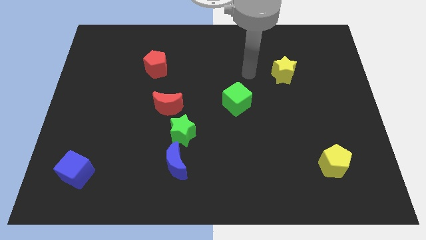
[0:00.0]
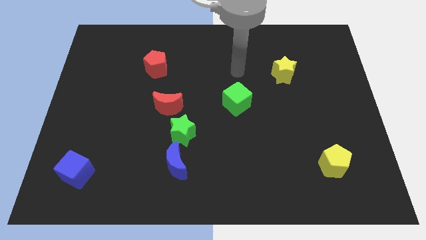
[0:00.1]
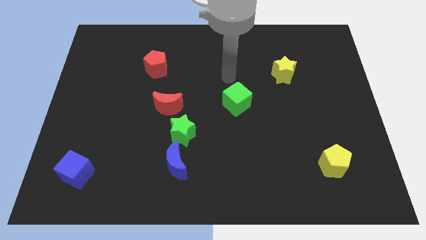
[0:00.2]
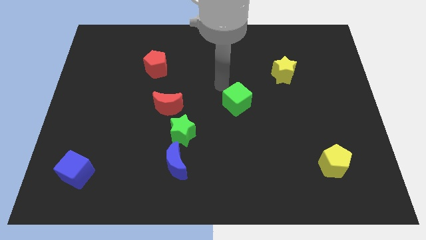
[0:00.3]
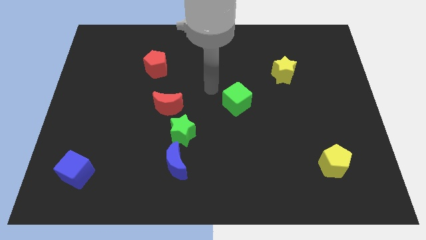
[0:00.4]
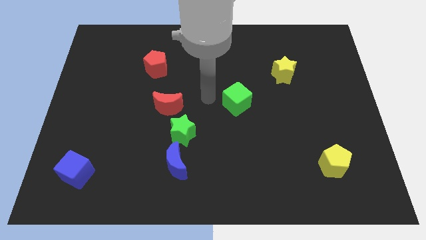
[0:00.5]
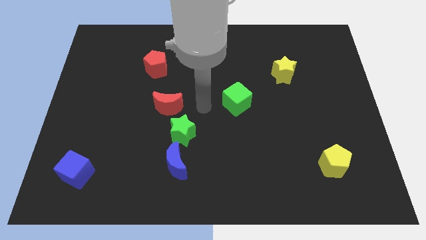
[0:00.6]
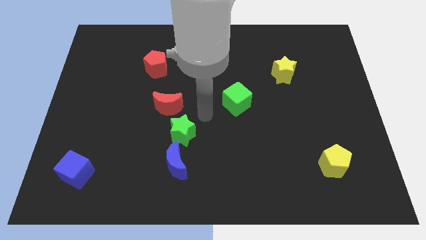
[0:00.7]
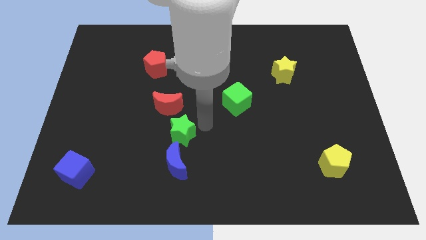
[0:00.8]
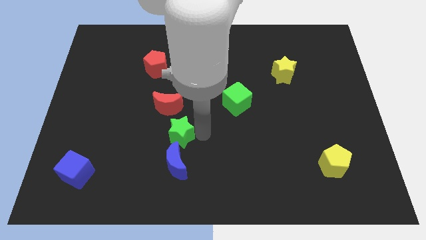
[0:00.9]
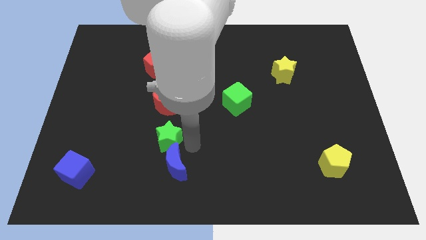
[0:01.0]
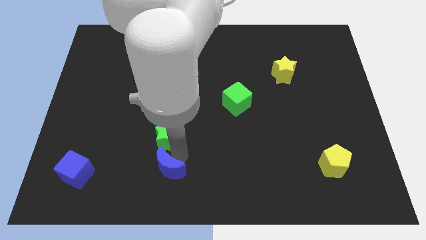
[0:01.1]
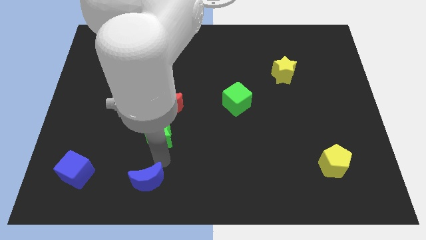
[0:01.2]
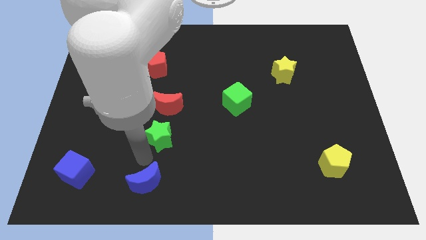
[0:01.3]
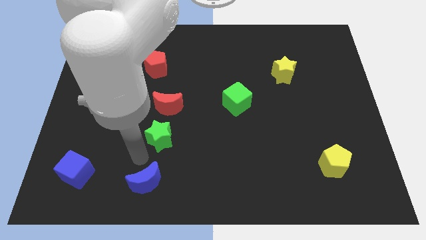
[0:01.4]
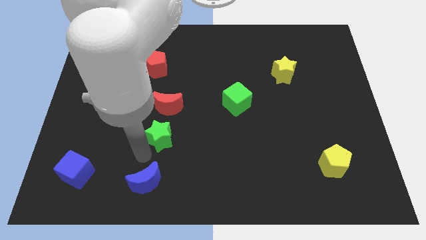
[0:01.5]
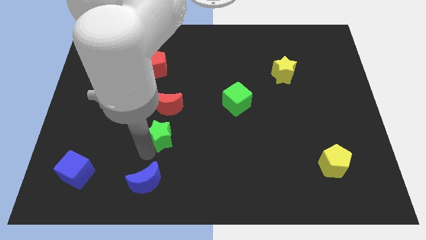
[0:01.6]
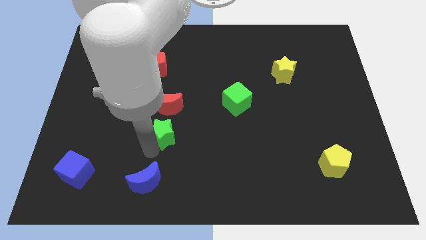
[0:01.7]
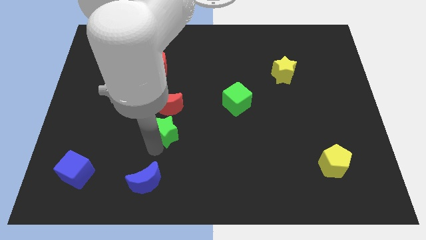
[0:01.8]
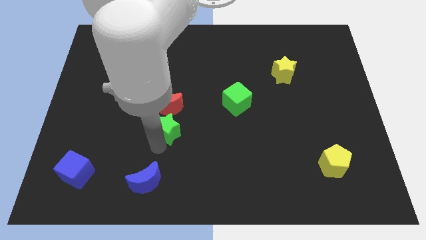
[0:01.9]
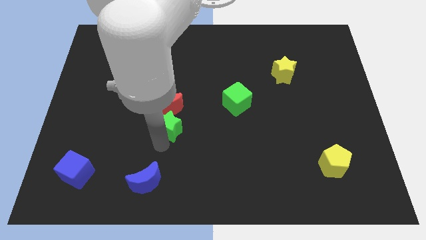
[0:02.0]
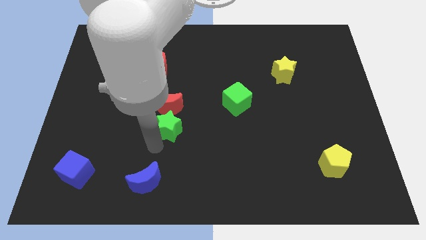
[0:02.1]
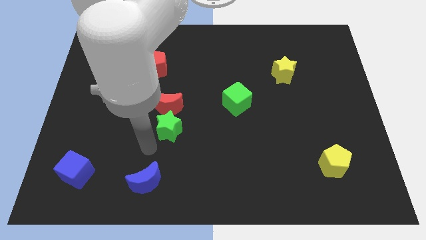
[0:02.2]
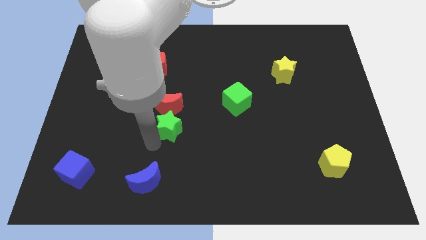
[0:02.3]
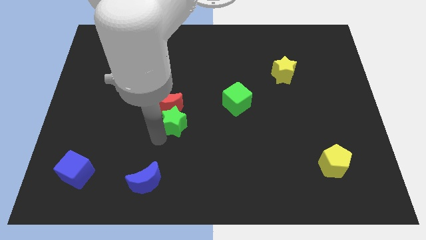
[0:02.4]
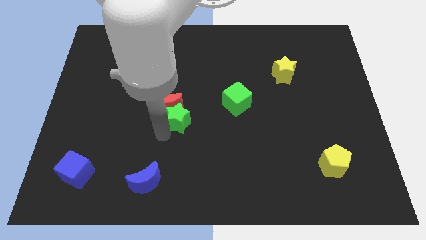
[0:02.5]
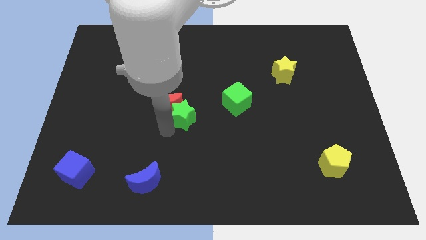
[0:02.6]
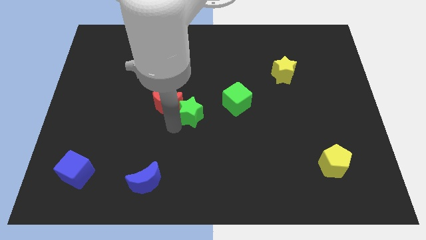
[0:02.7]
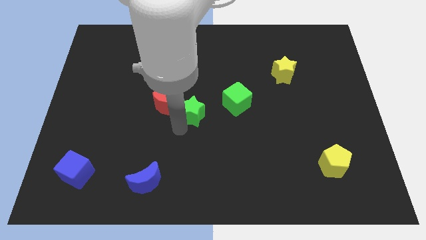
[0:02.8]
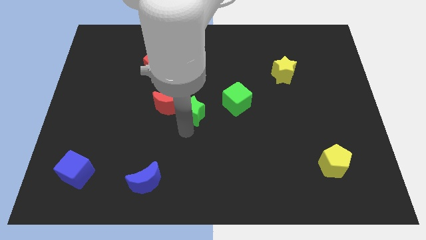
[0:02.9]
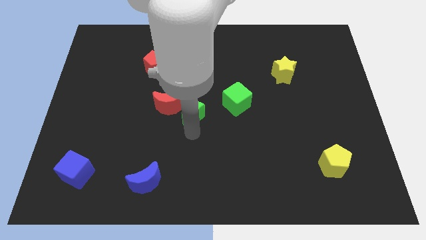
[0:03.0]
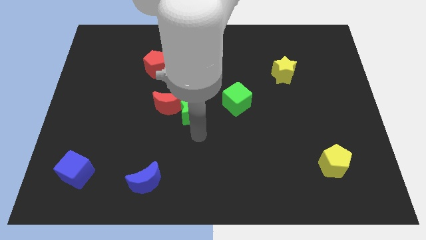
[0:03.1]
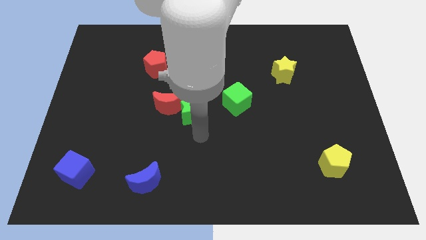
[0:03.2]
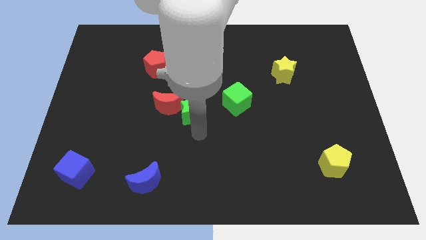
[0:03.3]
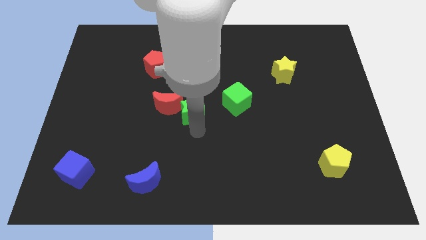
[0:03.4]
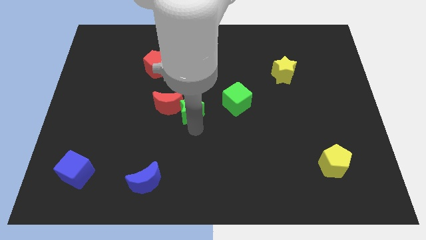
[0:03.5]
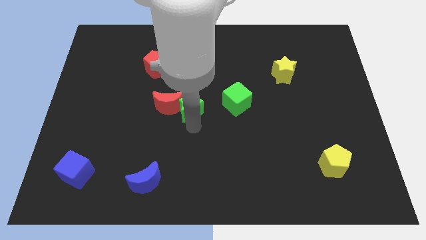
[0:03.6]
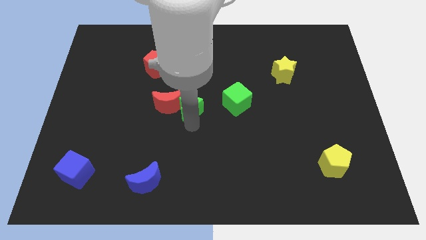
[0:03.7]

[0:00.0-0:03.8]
slightly push the green star up

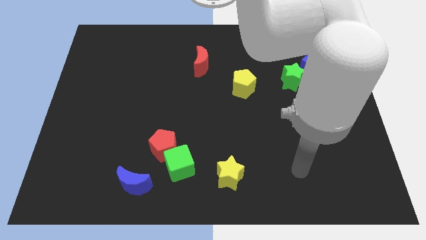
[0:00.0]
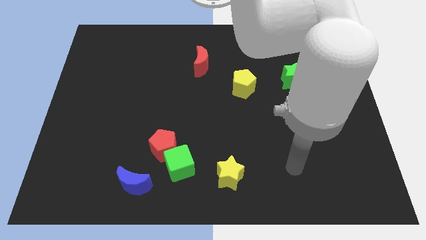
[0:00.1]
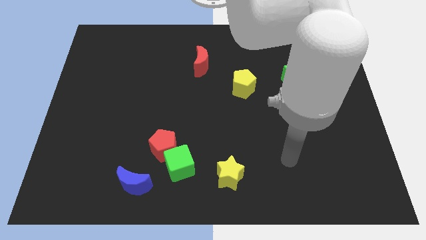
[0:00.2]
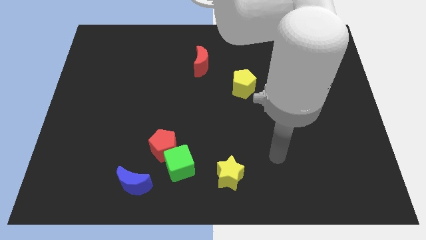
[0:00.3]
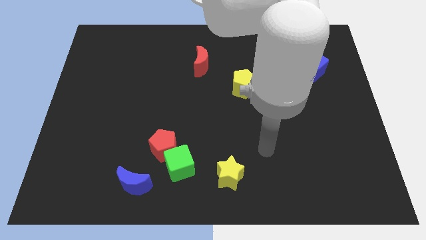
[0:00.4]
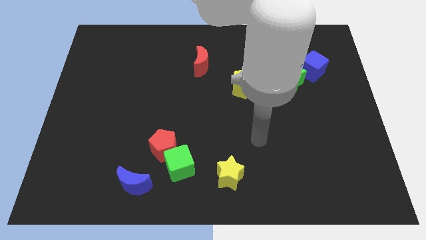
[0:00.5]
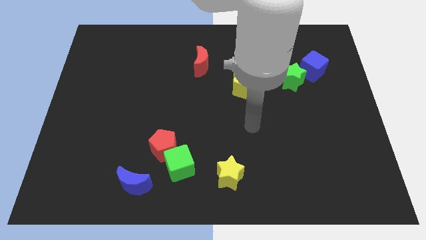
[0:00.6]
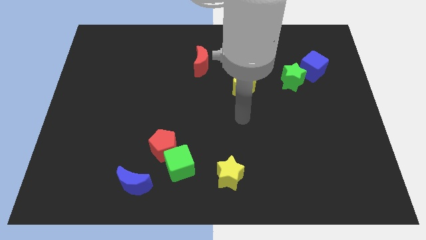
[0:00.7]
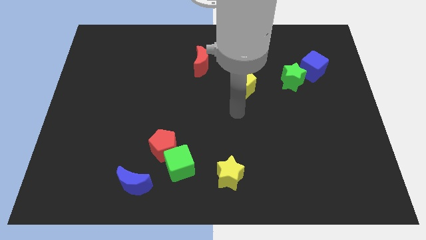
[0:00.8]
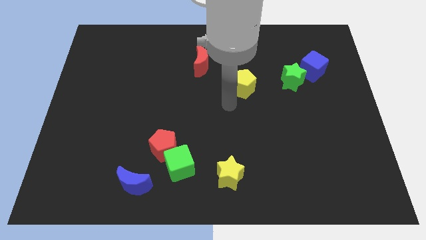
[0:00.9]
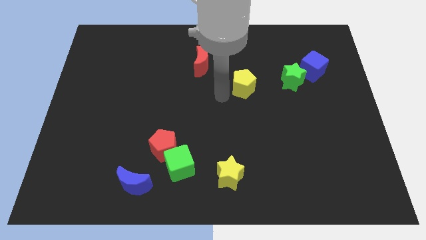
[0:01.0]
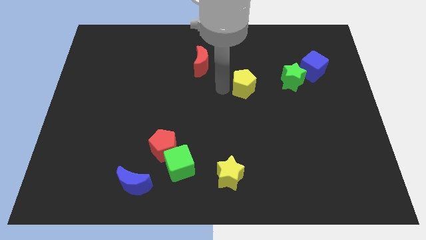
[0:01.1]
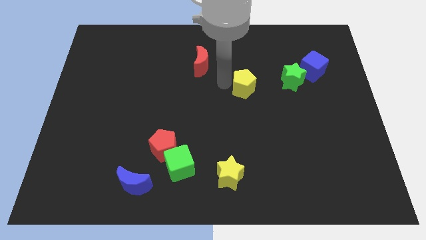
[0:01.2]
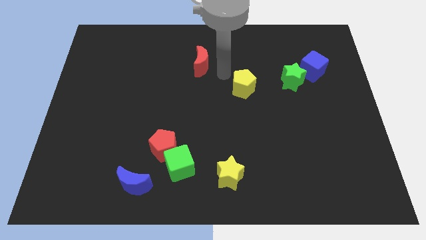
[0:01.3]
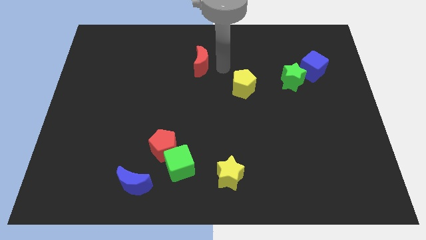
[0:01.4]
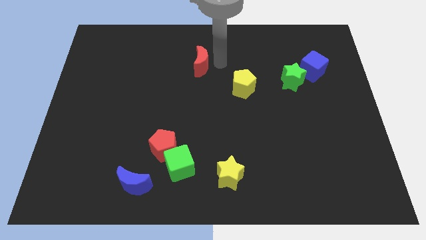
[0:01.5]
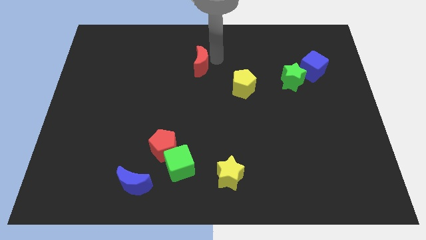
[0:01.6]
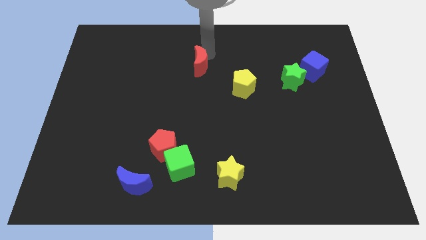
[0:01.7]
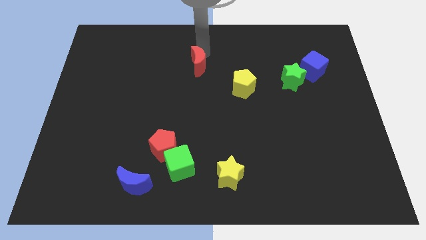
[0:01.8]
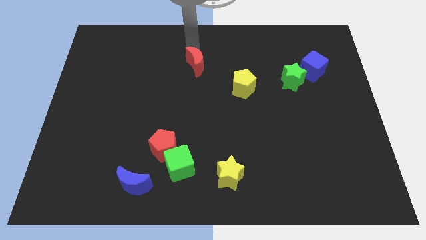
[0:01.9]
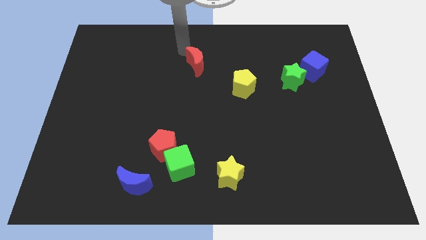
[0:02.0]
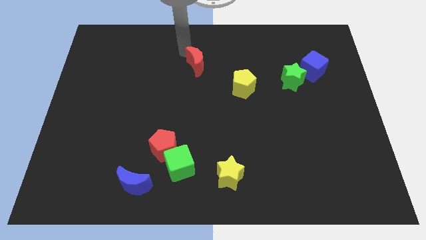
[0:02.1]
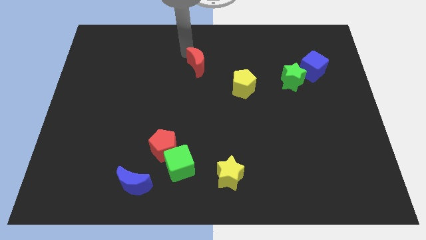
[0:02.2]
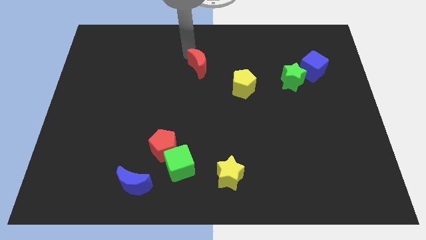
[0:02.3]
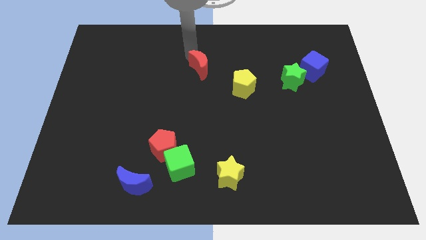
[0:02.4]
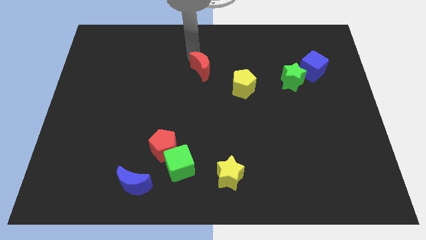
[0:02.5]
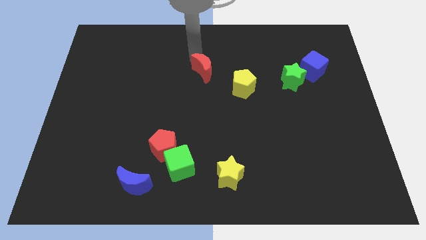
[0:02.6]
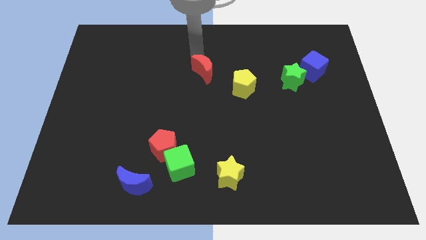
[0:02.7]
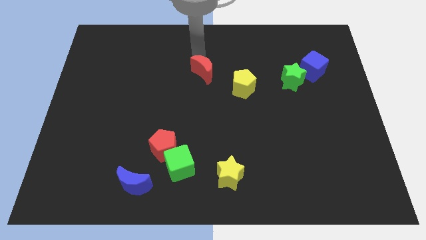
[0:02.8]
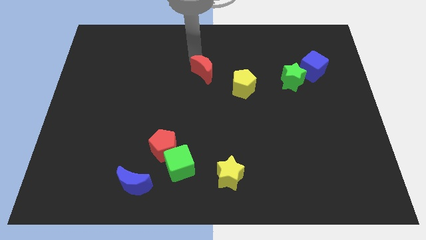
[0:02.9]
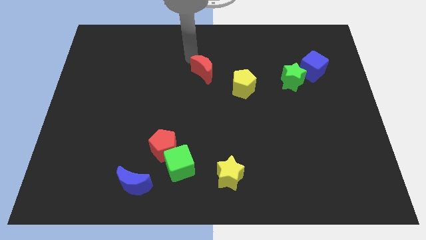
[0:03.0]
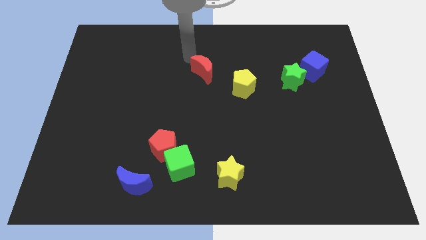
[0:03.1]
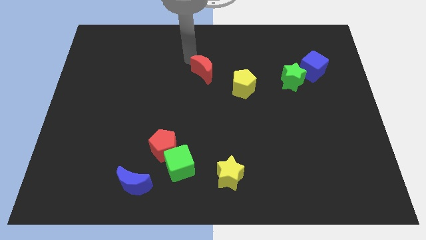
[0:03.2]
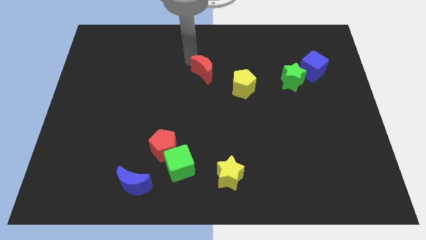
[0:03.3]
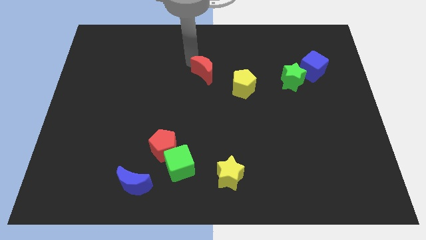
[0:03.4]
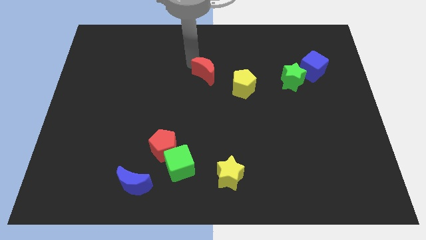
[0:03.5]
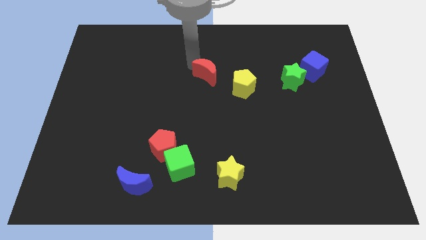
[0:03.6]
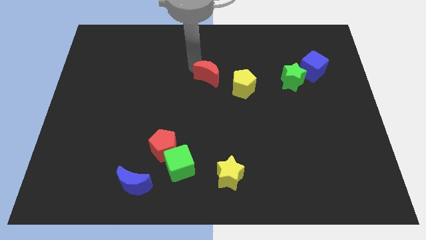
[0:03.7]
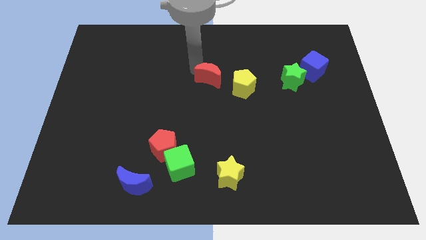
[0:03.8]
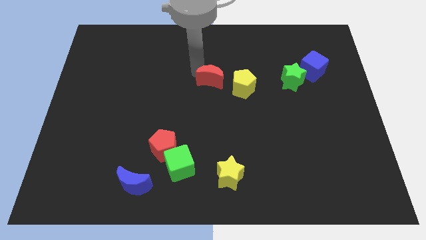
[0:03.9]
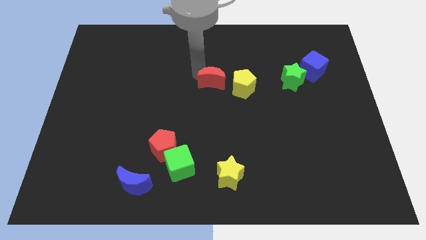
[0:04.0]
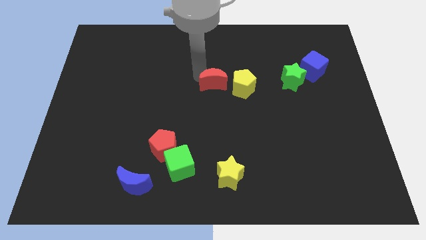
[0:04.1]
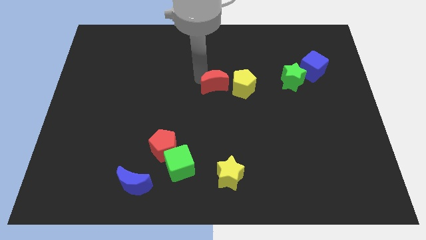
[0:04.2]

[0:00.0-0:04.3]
slide the red moon somewhat down and right diagonally
